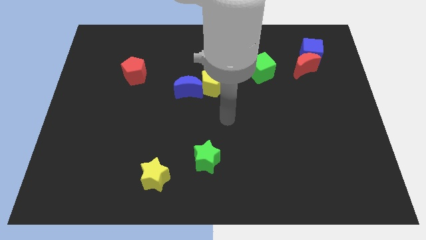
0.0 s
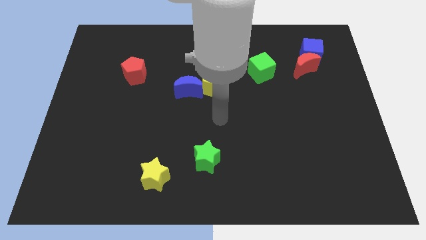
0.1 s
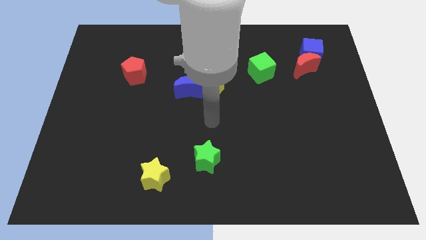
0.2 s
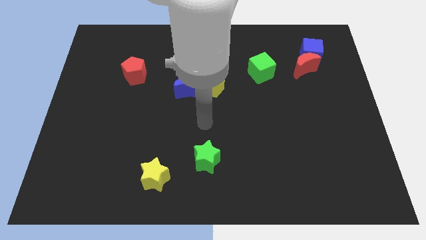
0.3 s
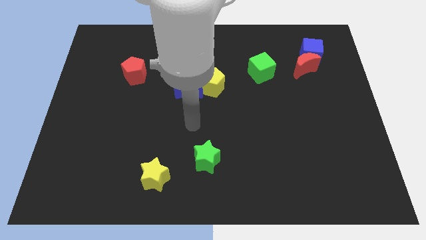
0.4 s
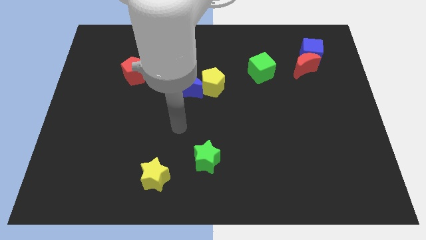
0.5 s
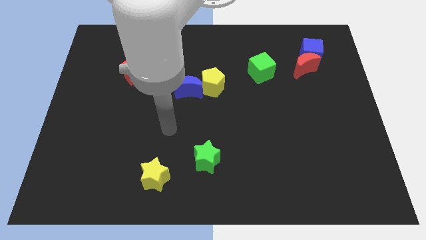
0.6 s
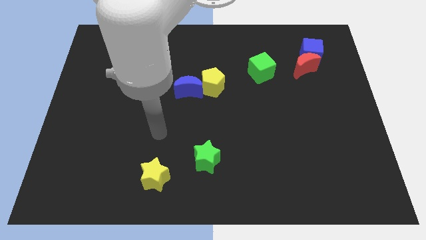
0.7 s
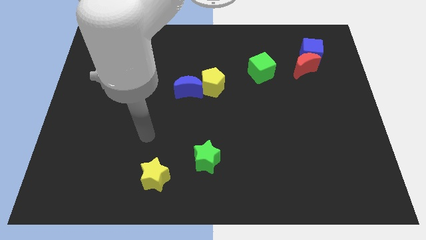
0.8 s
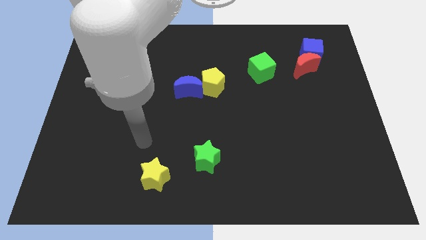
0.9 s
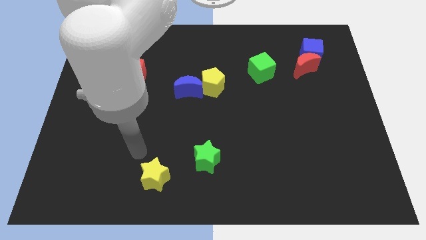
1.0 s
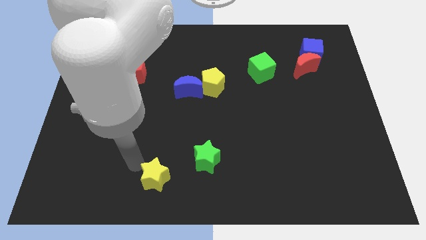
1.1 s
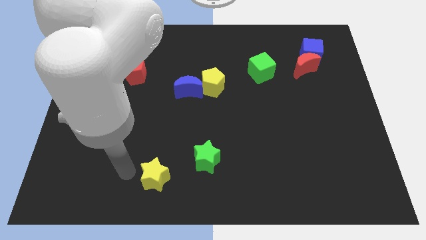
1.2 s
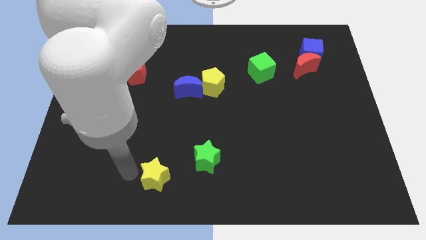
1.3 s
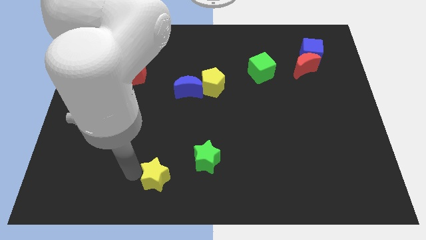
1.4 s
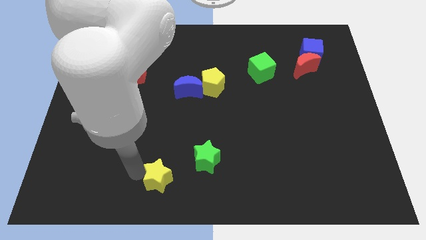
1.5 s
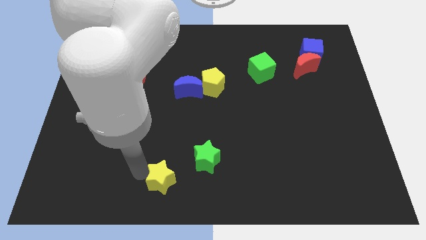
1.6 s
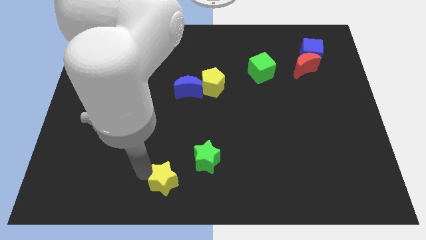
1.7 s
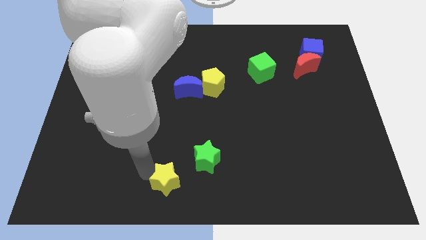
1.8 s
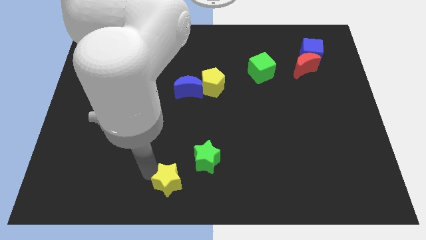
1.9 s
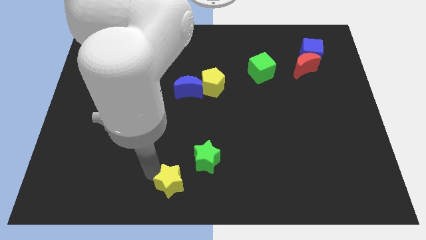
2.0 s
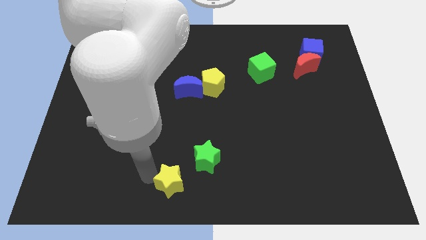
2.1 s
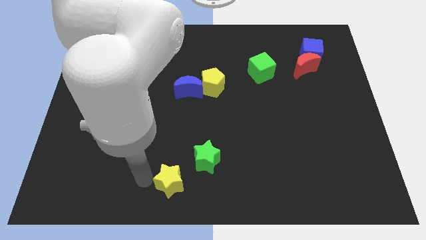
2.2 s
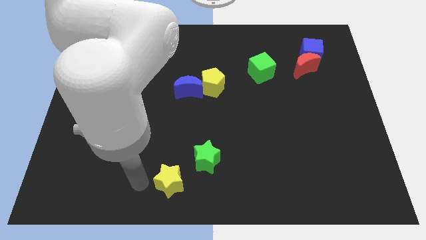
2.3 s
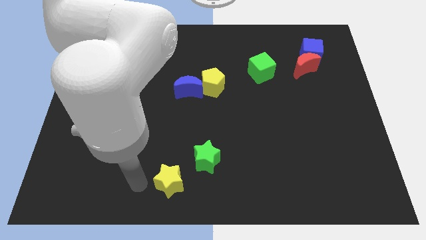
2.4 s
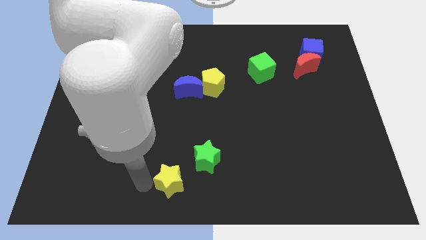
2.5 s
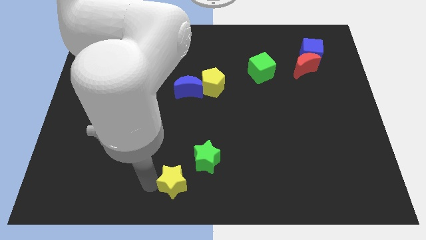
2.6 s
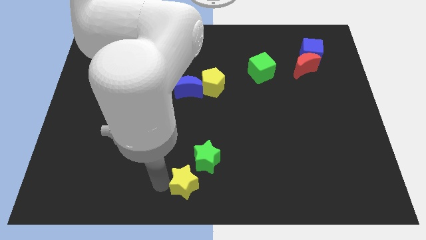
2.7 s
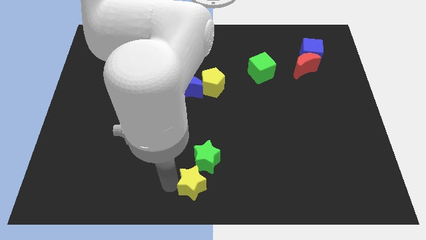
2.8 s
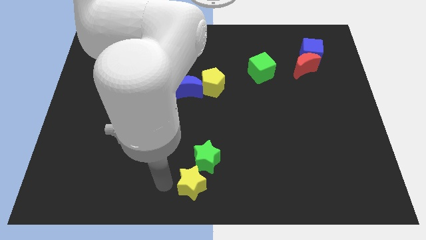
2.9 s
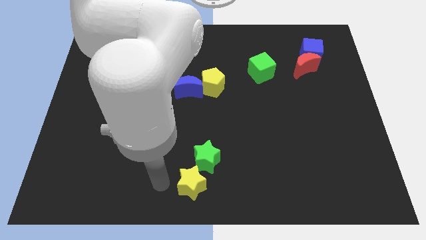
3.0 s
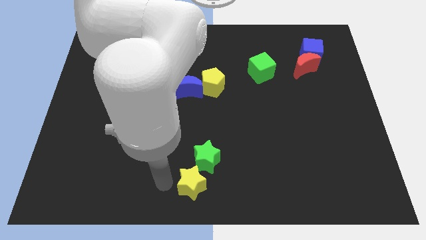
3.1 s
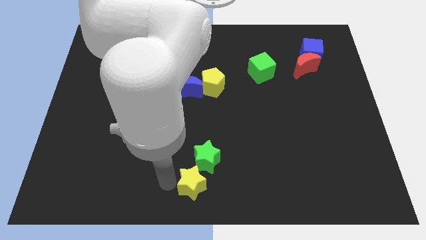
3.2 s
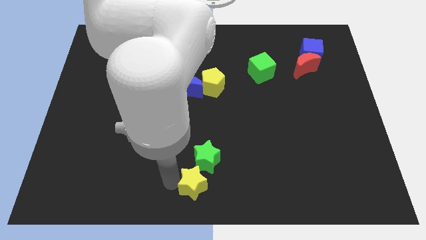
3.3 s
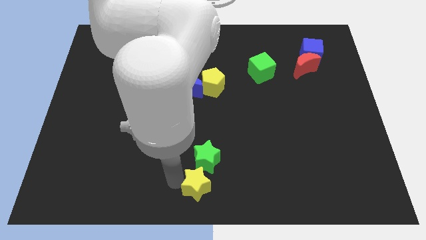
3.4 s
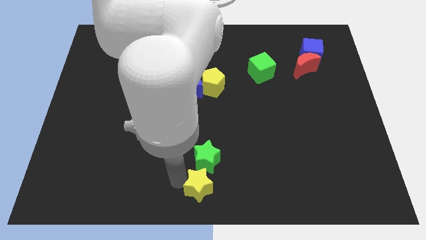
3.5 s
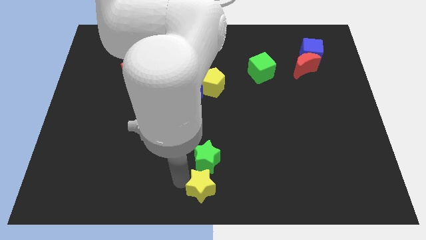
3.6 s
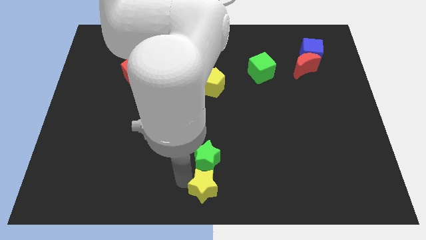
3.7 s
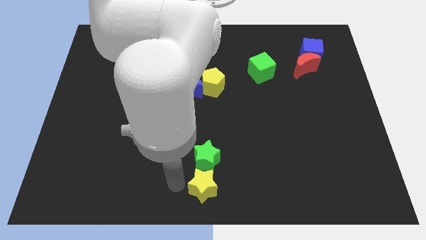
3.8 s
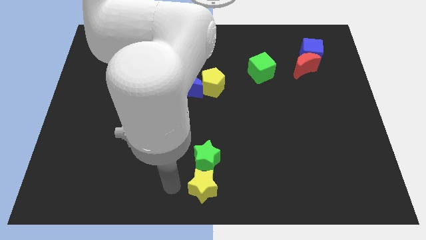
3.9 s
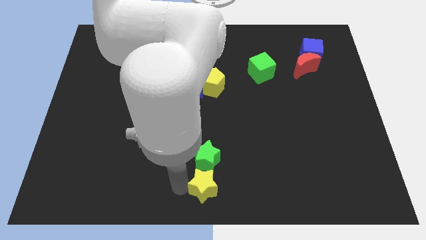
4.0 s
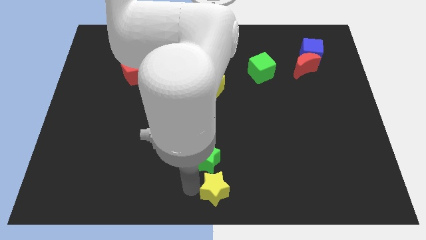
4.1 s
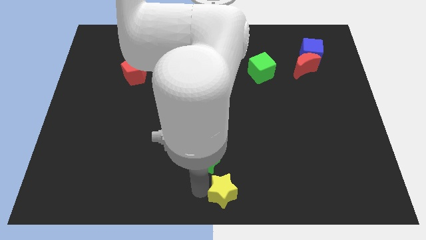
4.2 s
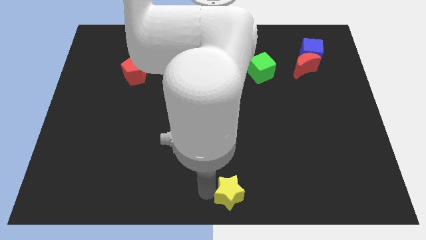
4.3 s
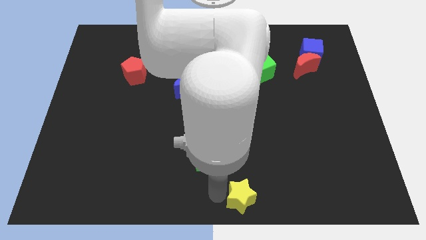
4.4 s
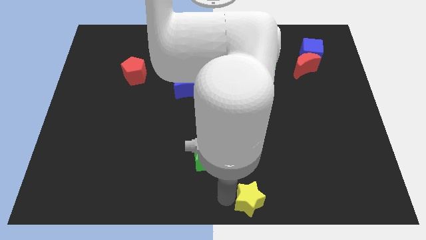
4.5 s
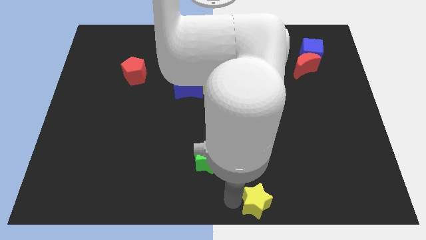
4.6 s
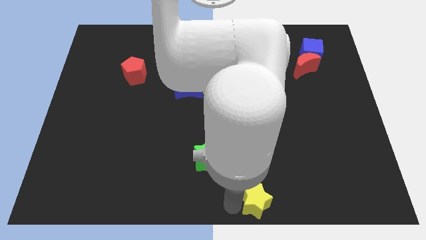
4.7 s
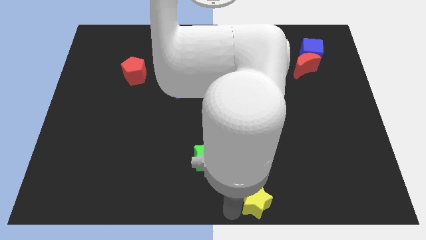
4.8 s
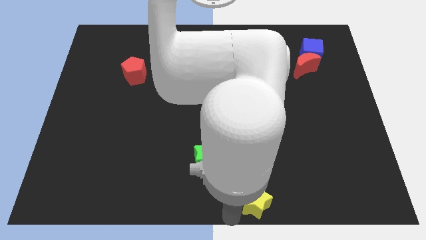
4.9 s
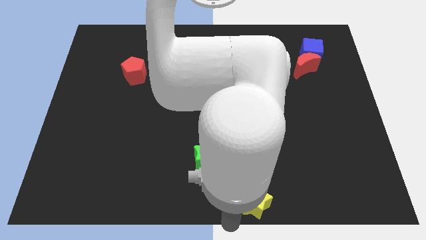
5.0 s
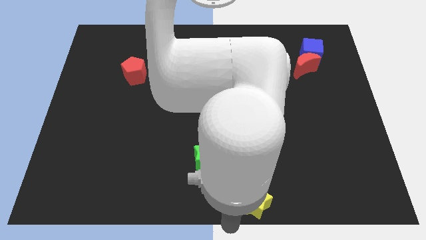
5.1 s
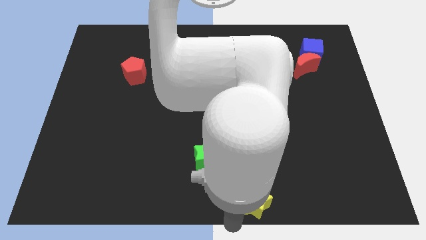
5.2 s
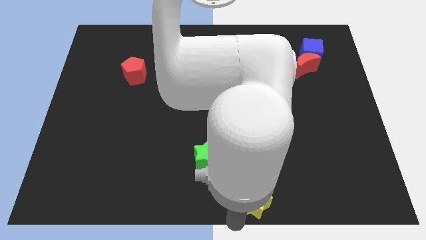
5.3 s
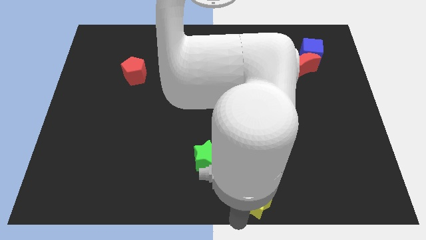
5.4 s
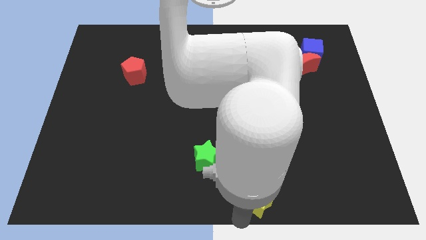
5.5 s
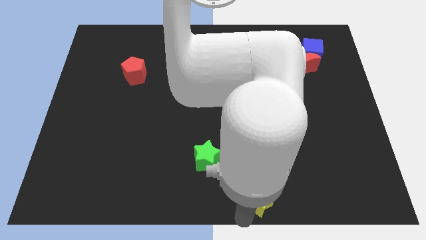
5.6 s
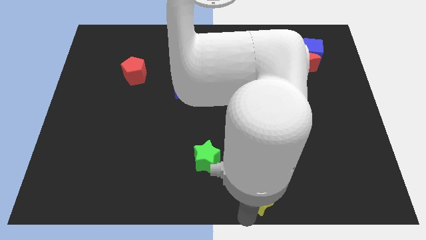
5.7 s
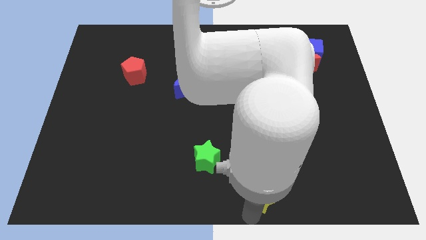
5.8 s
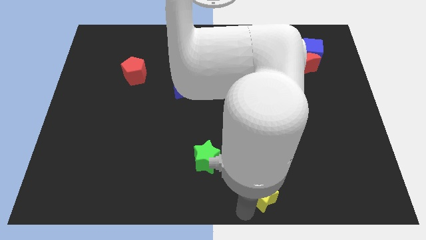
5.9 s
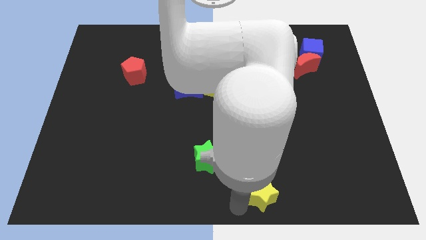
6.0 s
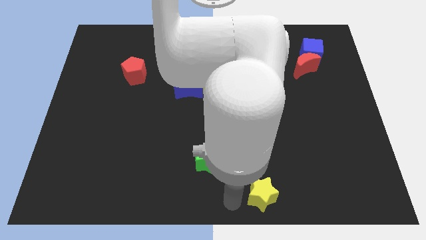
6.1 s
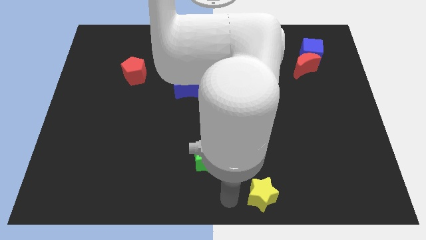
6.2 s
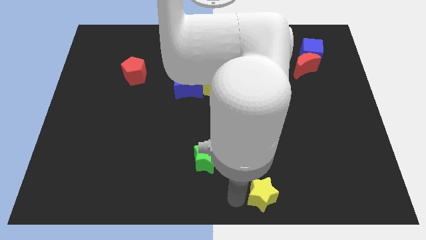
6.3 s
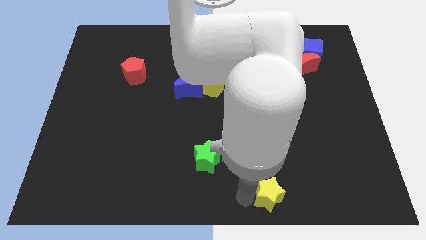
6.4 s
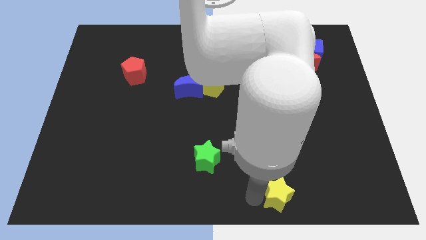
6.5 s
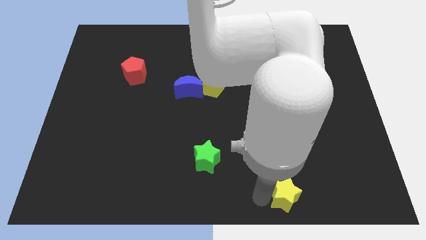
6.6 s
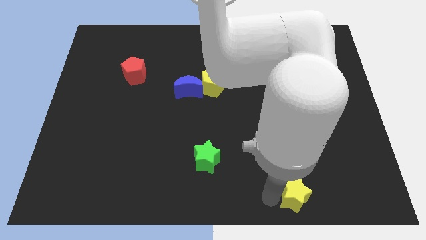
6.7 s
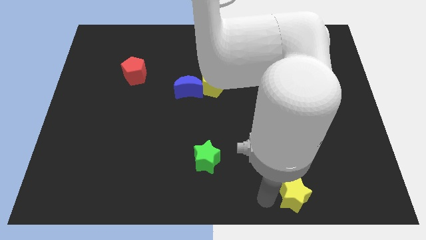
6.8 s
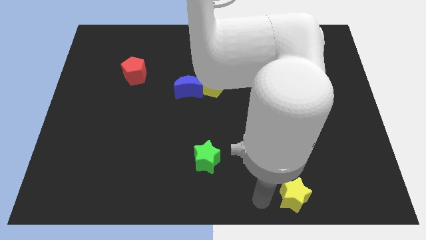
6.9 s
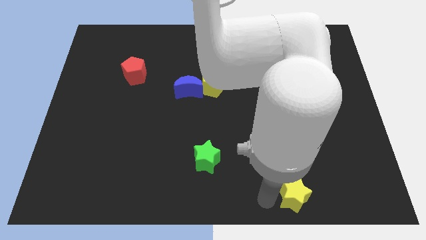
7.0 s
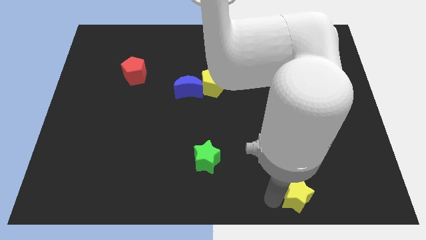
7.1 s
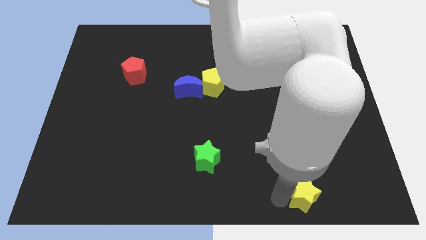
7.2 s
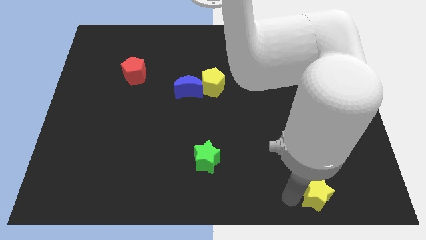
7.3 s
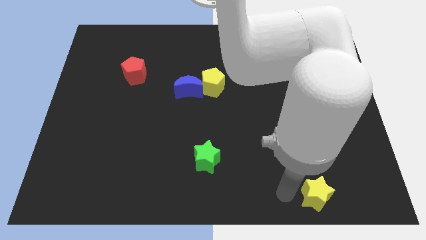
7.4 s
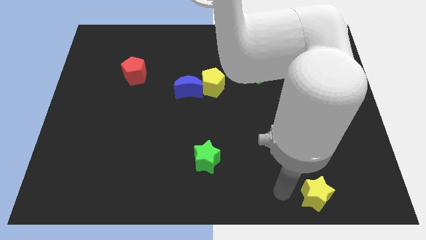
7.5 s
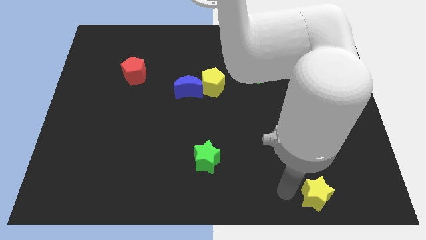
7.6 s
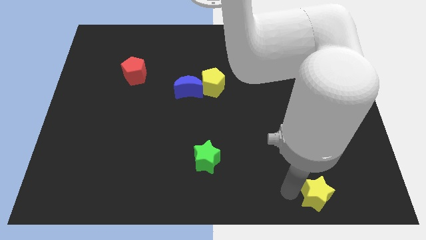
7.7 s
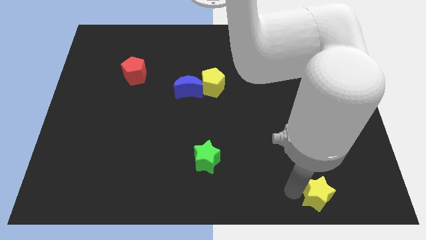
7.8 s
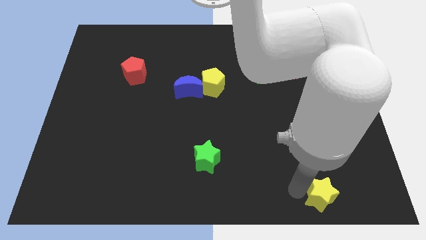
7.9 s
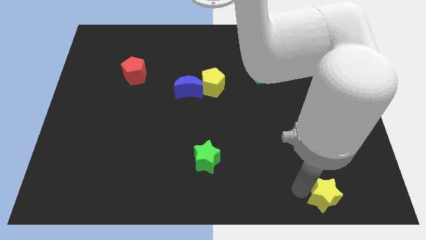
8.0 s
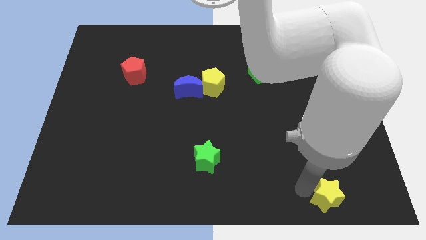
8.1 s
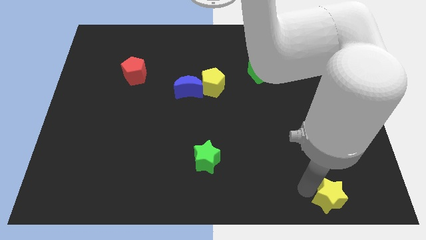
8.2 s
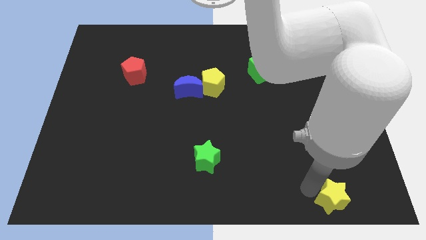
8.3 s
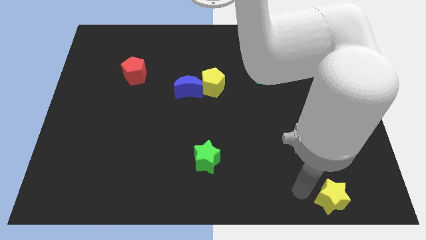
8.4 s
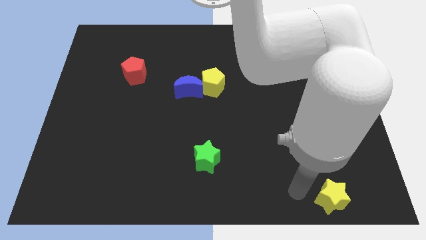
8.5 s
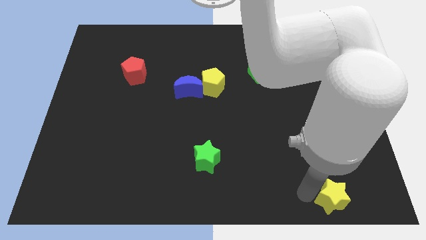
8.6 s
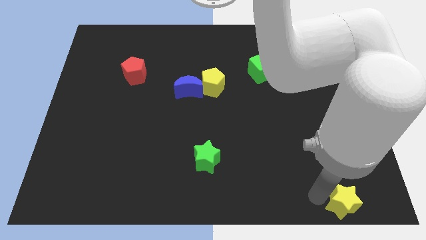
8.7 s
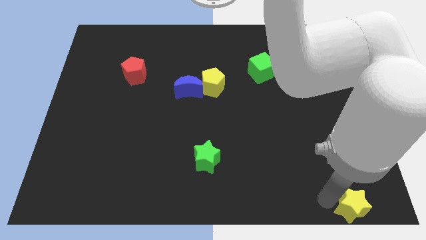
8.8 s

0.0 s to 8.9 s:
push the yellow star to the bottom right
